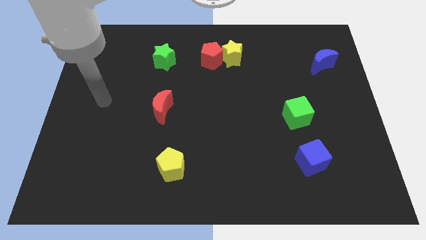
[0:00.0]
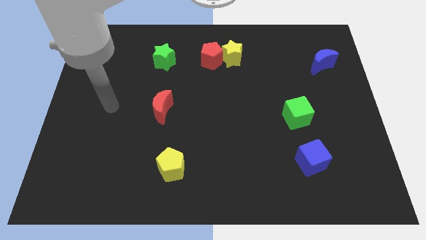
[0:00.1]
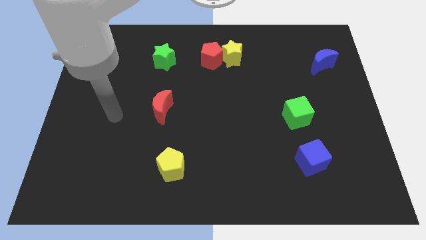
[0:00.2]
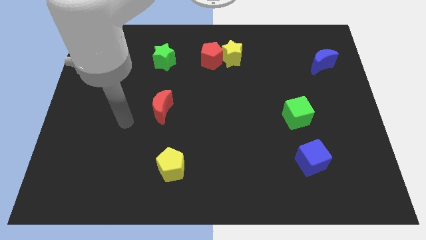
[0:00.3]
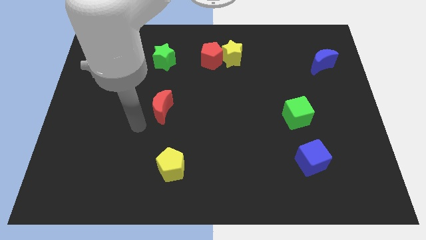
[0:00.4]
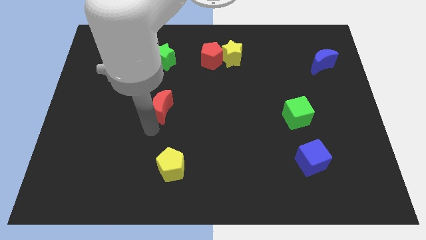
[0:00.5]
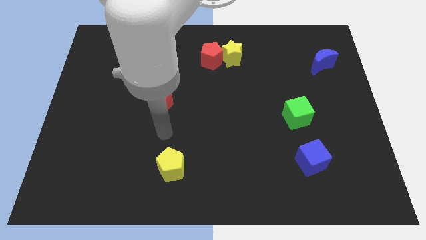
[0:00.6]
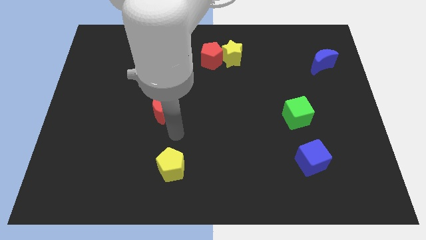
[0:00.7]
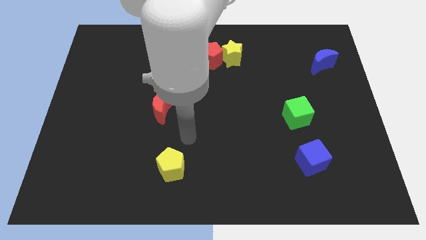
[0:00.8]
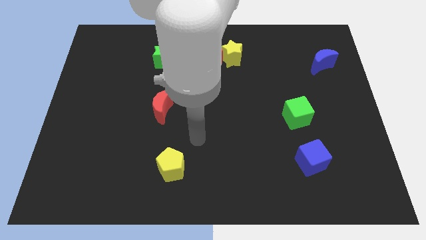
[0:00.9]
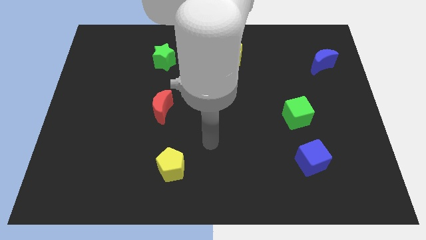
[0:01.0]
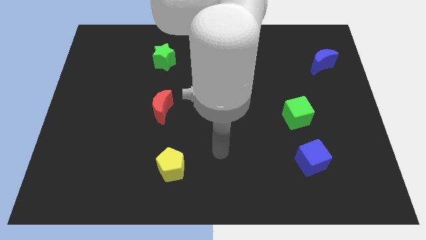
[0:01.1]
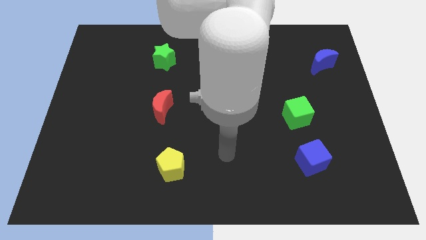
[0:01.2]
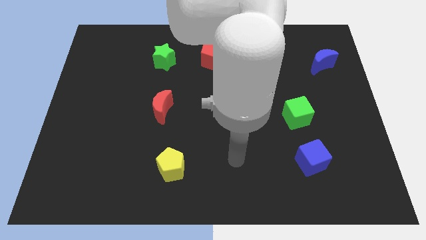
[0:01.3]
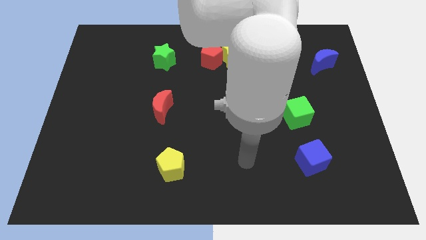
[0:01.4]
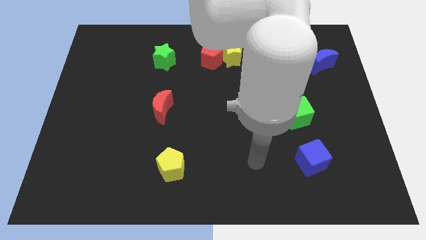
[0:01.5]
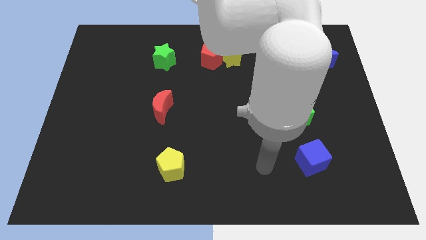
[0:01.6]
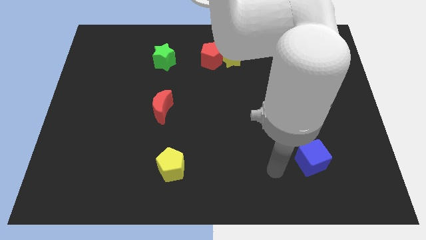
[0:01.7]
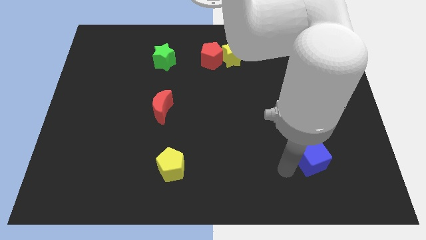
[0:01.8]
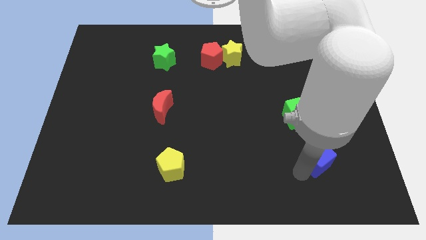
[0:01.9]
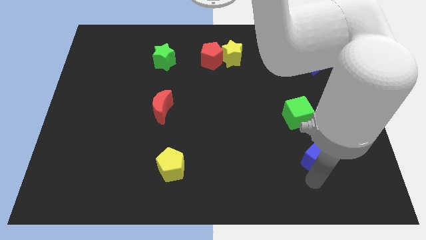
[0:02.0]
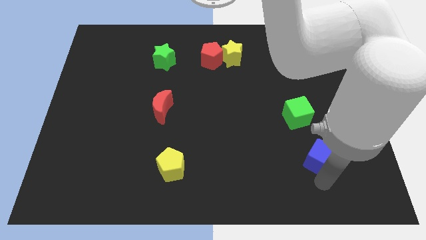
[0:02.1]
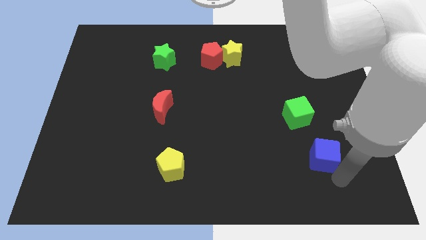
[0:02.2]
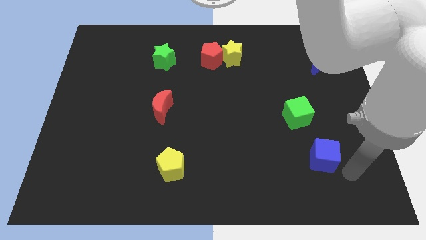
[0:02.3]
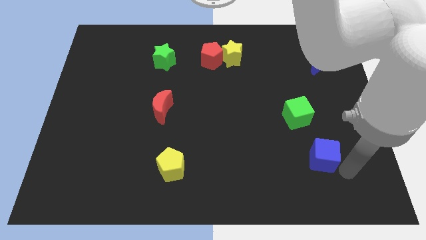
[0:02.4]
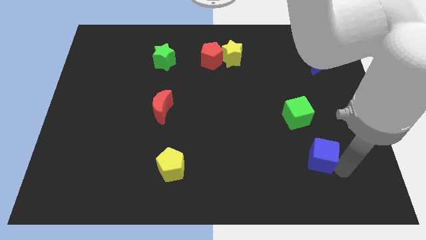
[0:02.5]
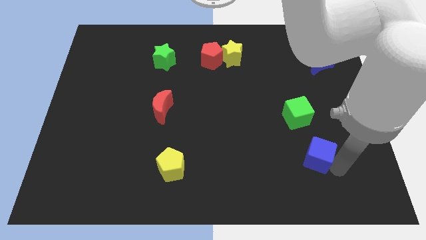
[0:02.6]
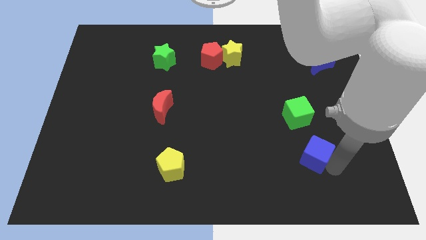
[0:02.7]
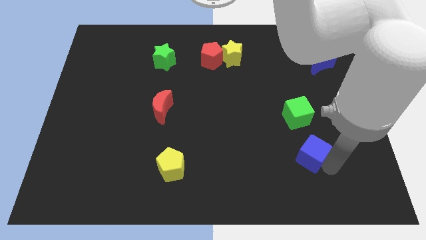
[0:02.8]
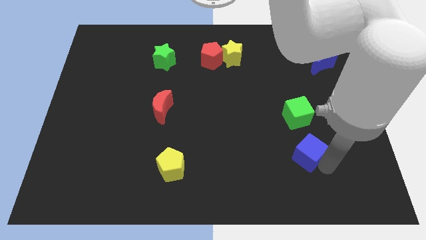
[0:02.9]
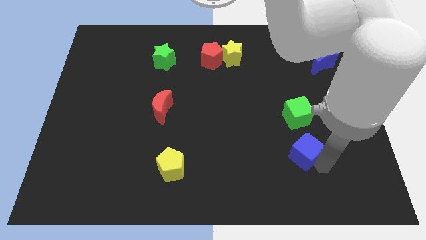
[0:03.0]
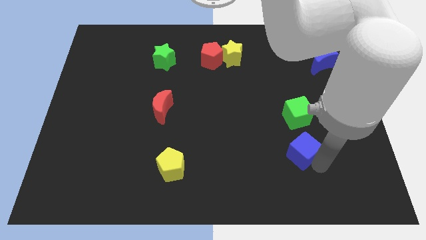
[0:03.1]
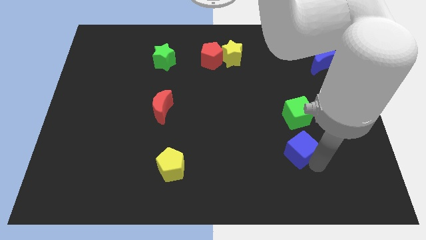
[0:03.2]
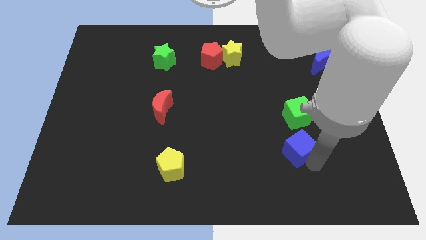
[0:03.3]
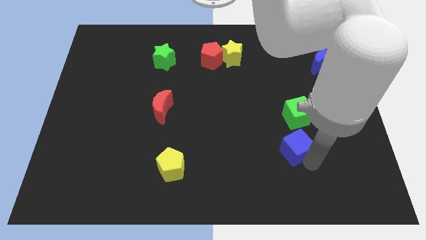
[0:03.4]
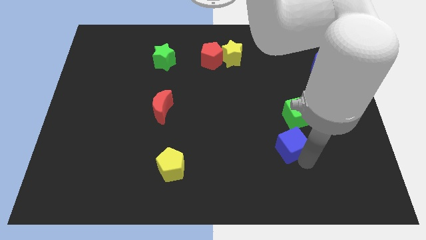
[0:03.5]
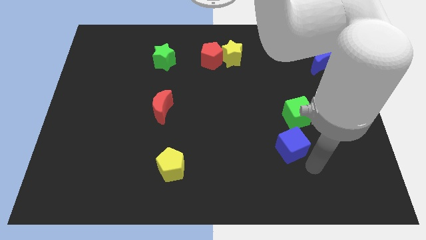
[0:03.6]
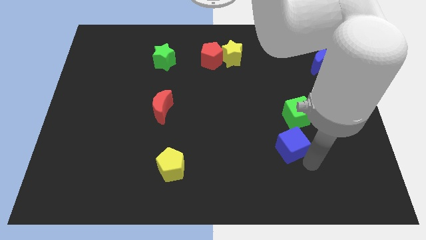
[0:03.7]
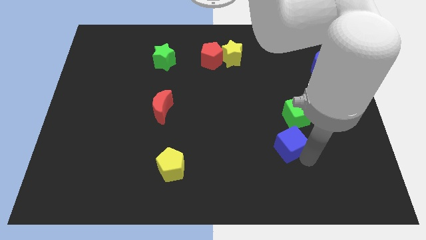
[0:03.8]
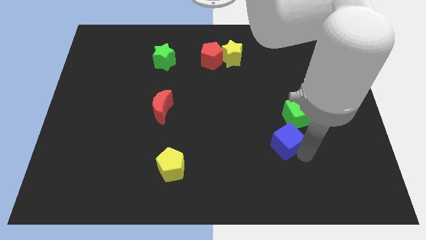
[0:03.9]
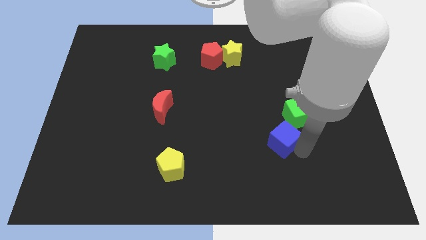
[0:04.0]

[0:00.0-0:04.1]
move the blue cube diagonally upwards and left a bit

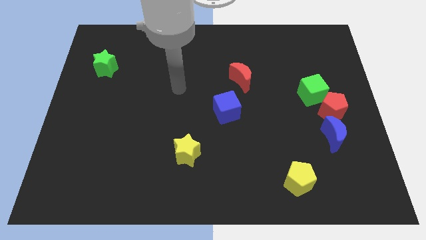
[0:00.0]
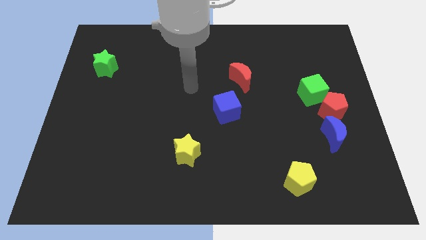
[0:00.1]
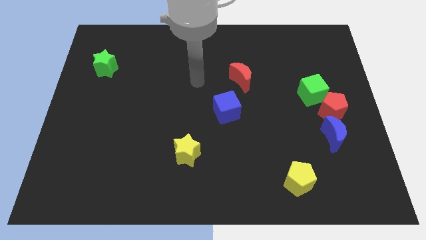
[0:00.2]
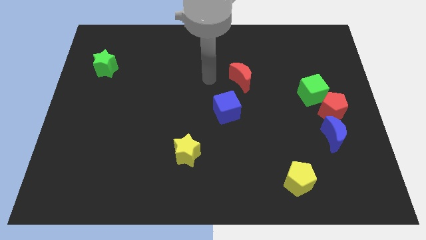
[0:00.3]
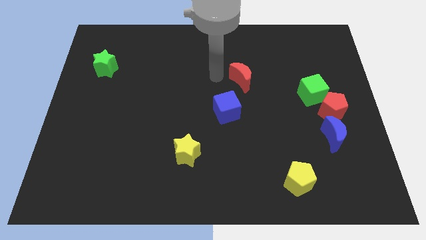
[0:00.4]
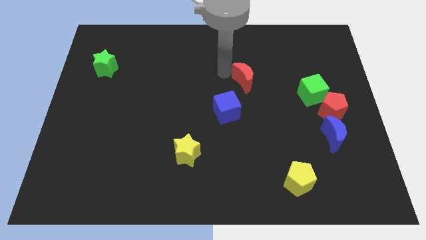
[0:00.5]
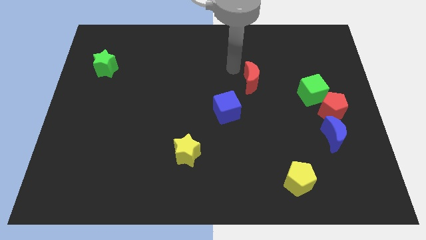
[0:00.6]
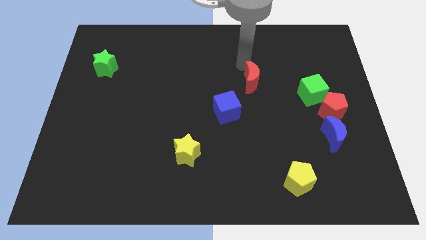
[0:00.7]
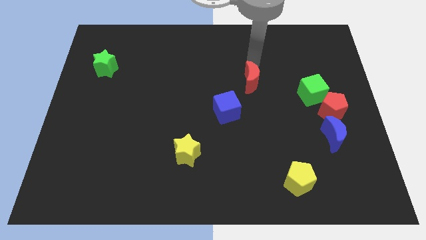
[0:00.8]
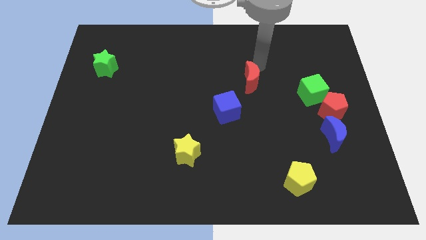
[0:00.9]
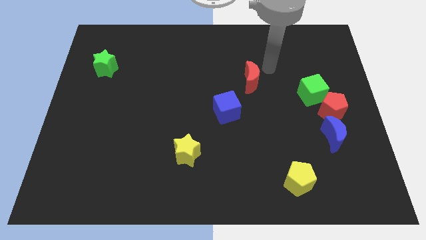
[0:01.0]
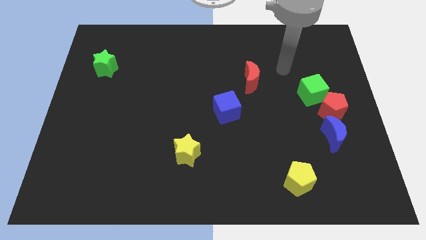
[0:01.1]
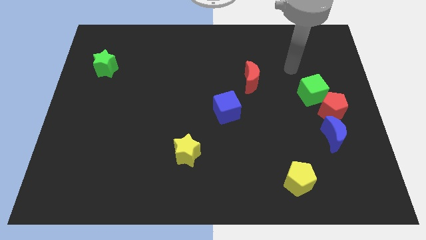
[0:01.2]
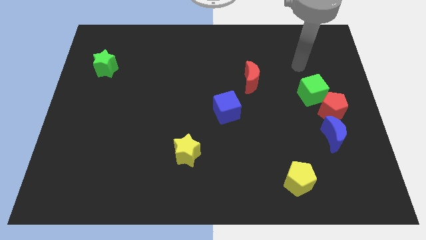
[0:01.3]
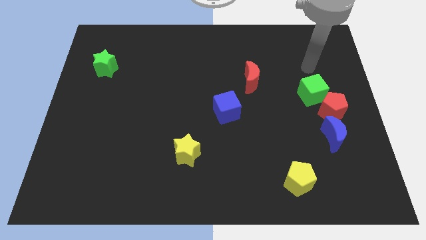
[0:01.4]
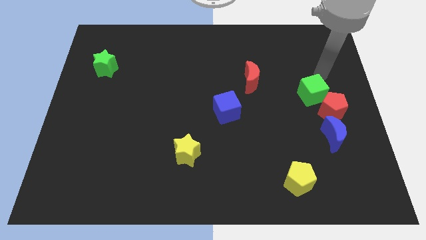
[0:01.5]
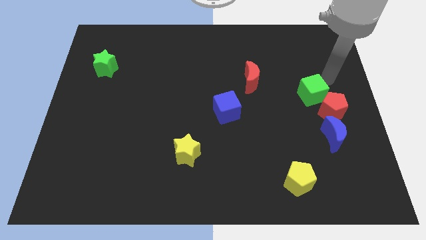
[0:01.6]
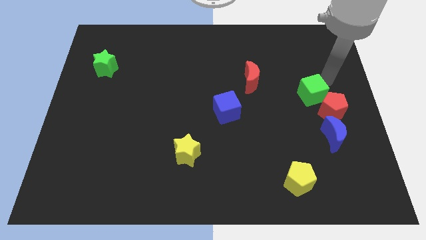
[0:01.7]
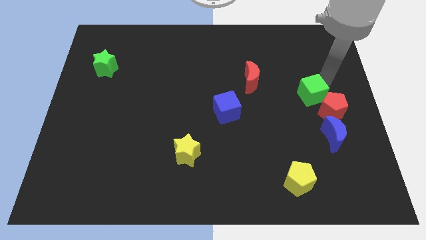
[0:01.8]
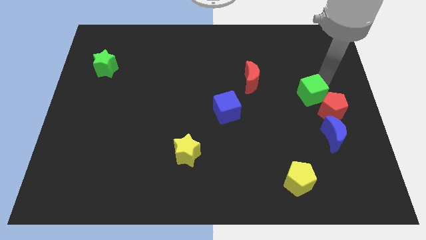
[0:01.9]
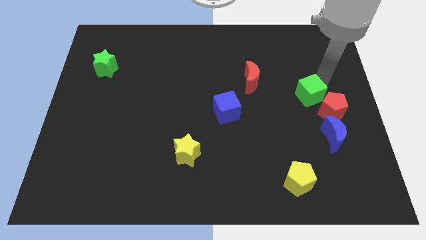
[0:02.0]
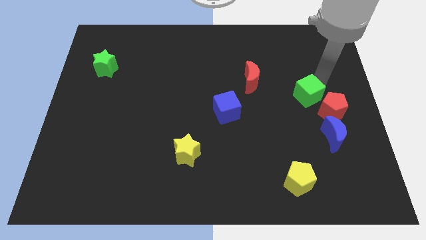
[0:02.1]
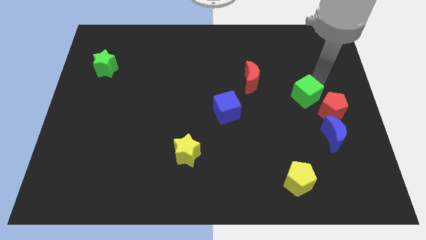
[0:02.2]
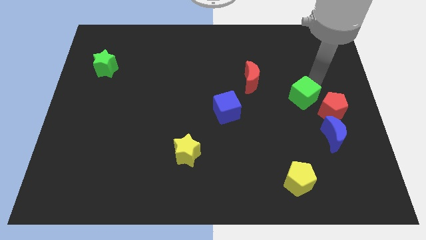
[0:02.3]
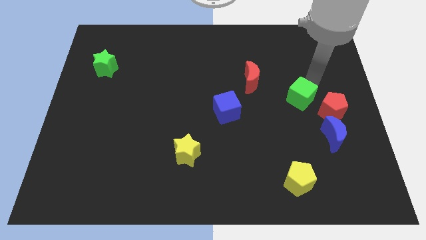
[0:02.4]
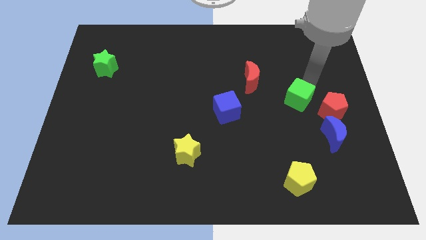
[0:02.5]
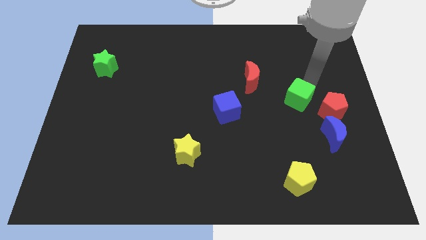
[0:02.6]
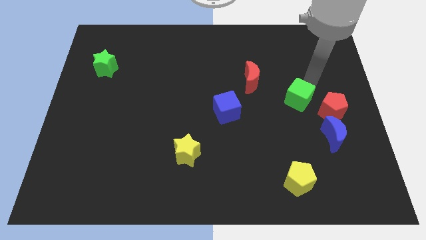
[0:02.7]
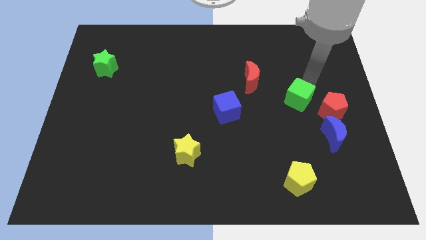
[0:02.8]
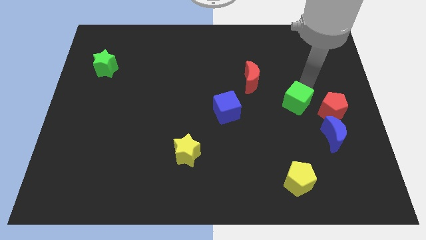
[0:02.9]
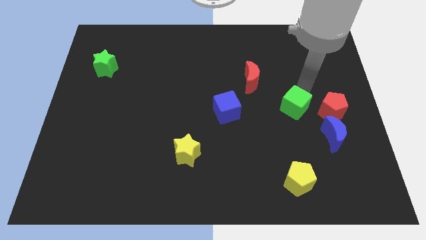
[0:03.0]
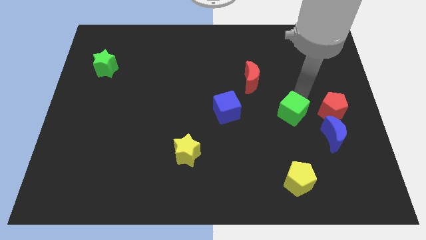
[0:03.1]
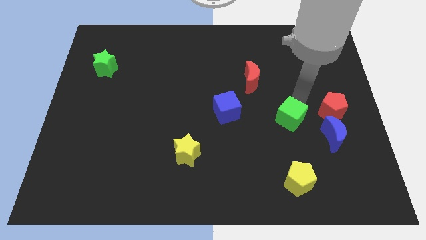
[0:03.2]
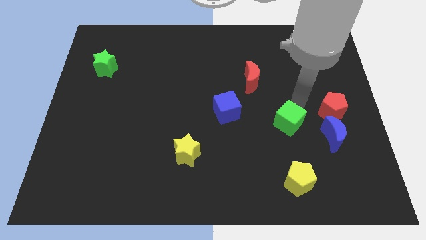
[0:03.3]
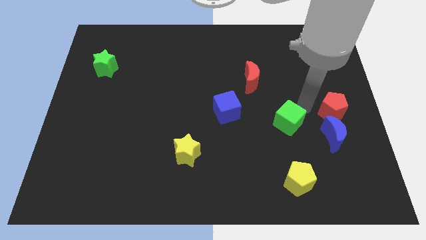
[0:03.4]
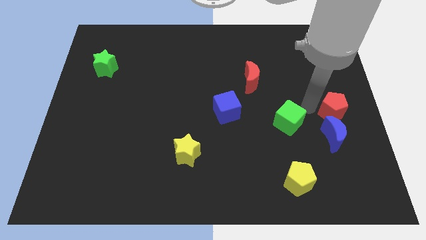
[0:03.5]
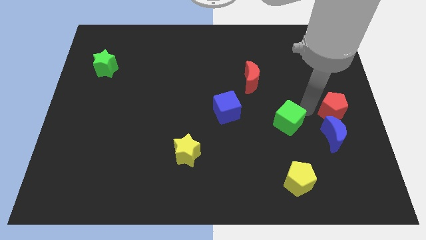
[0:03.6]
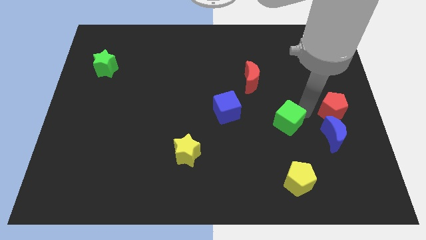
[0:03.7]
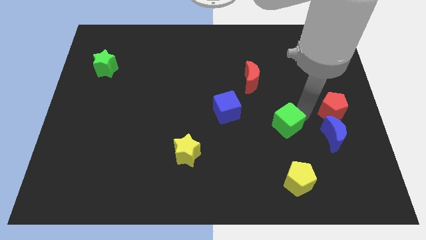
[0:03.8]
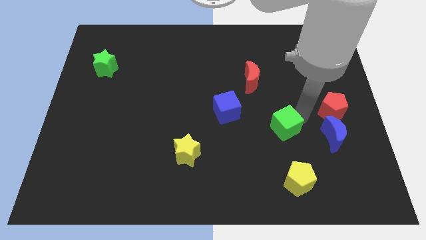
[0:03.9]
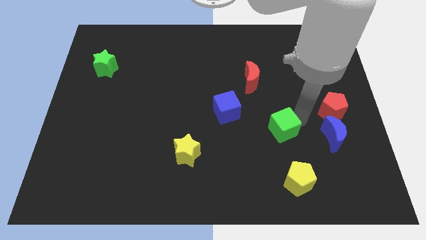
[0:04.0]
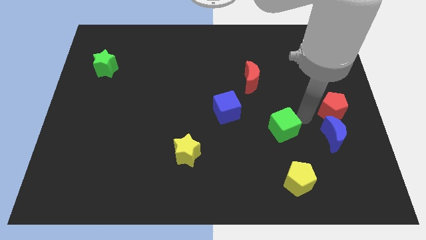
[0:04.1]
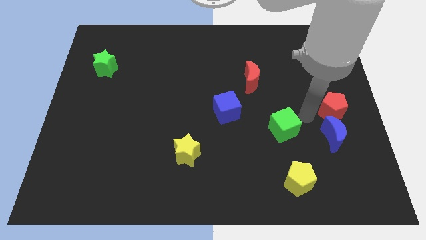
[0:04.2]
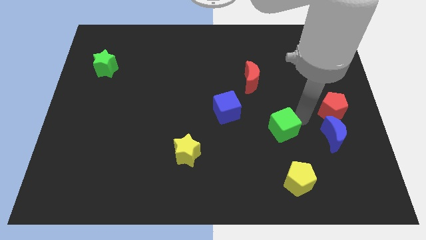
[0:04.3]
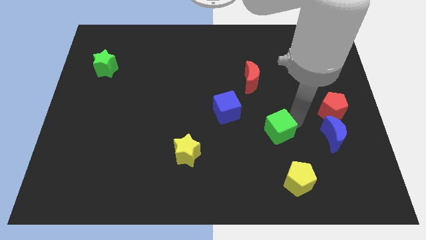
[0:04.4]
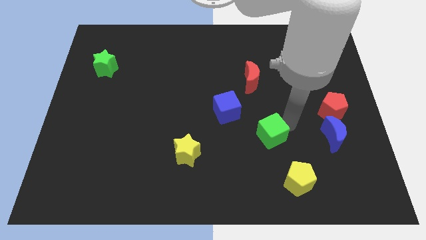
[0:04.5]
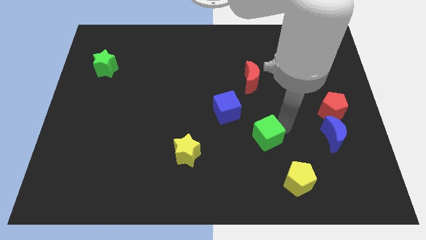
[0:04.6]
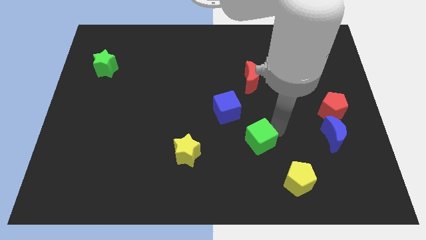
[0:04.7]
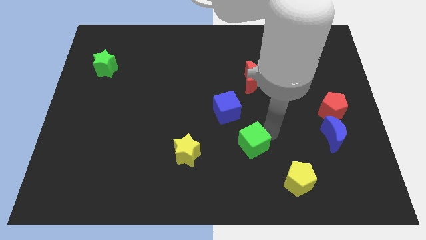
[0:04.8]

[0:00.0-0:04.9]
slide the green cube downwards and then to the left
